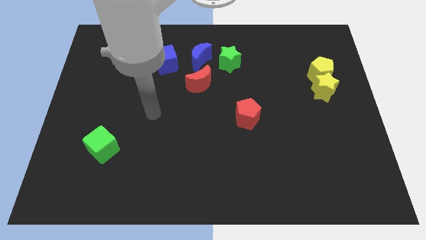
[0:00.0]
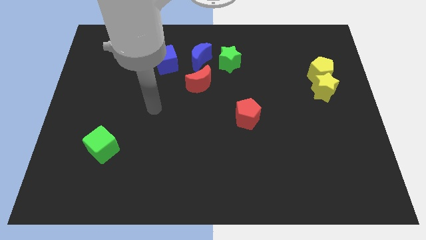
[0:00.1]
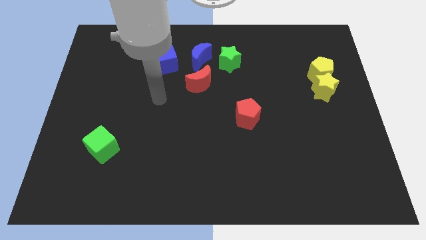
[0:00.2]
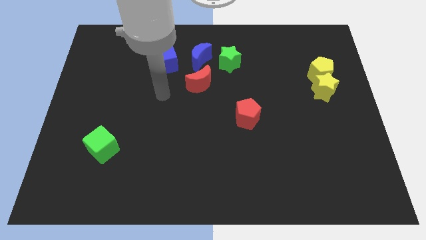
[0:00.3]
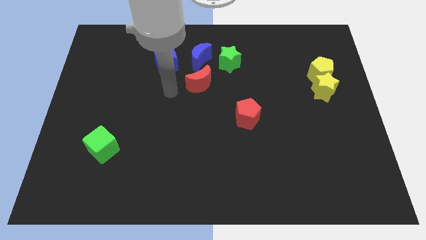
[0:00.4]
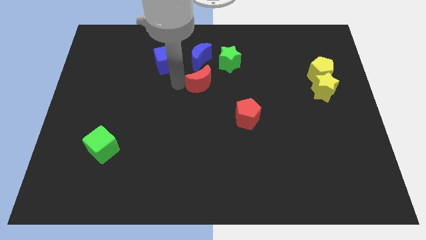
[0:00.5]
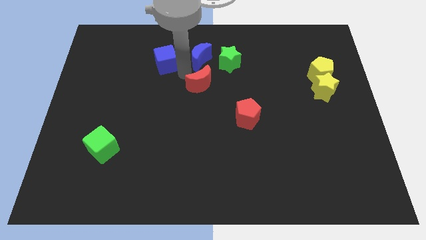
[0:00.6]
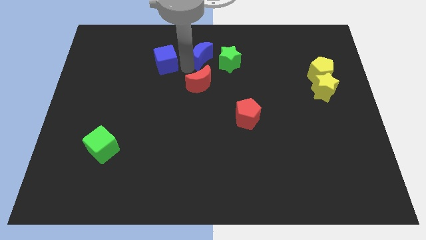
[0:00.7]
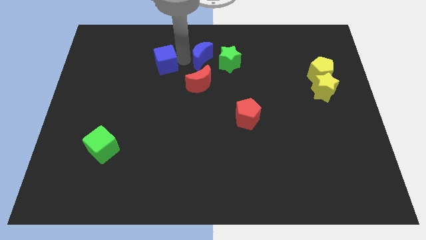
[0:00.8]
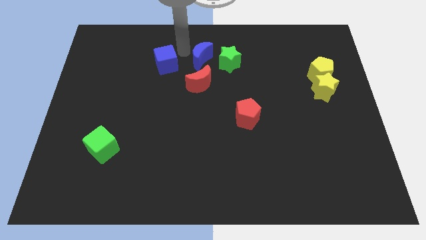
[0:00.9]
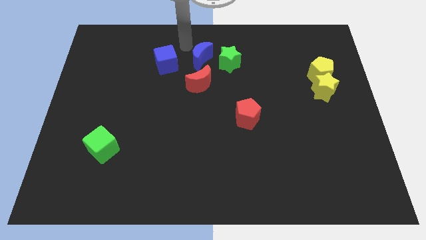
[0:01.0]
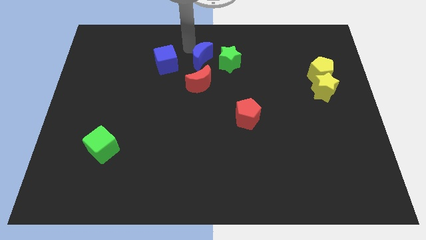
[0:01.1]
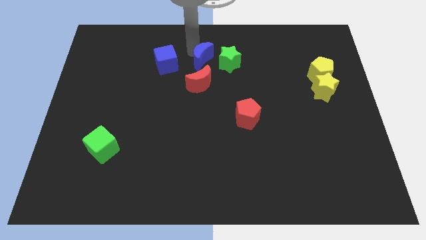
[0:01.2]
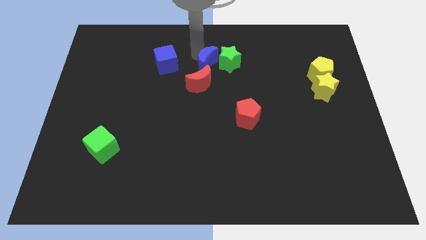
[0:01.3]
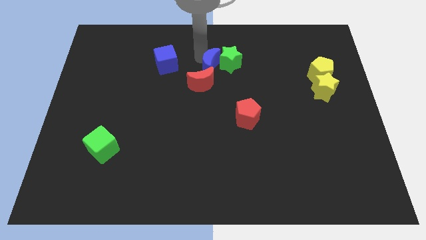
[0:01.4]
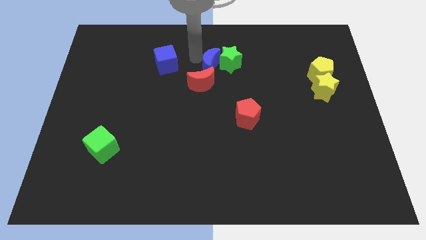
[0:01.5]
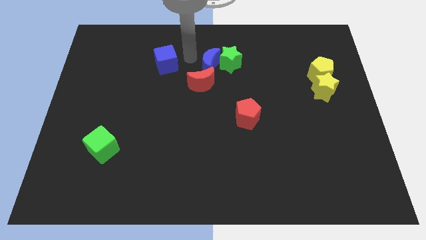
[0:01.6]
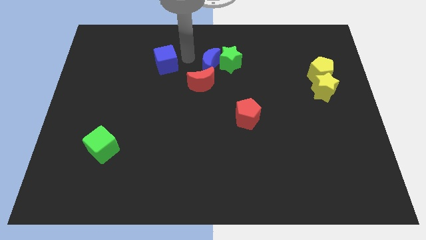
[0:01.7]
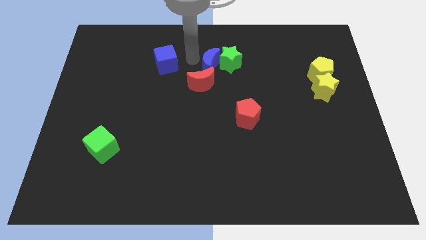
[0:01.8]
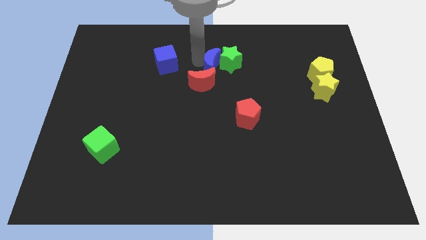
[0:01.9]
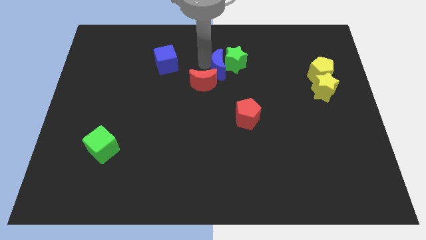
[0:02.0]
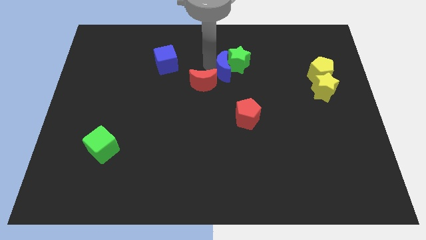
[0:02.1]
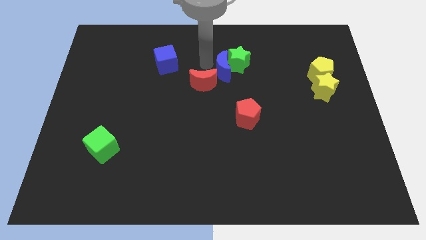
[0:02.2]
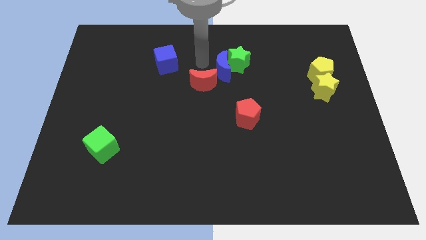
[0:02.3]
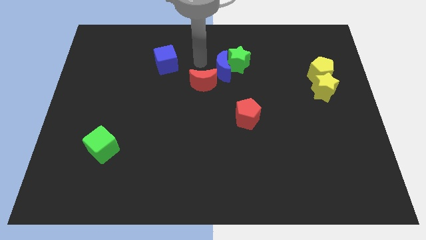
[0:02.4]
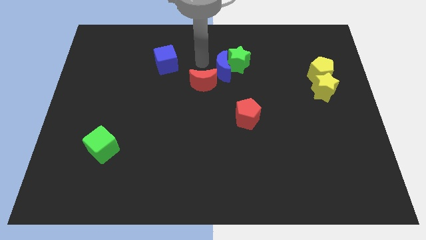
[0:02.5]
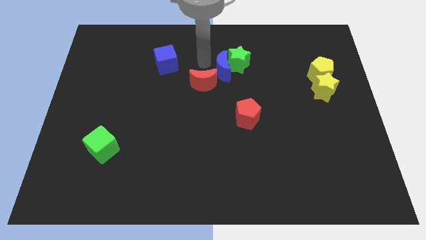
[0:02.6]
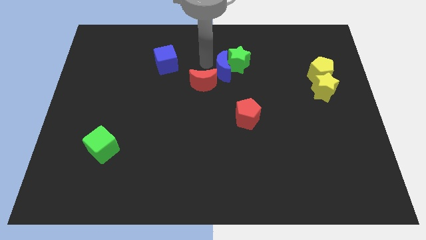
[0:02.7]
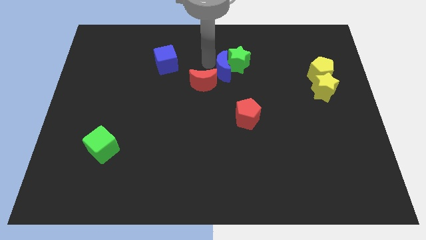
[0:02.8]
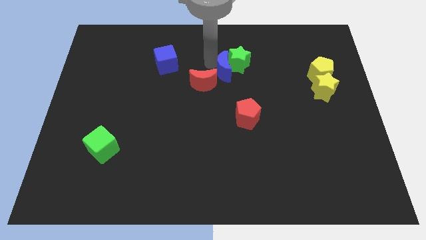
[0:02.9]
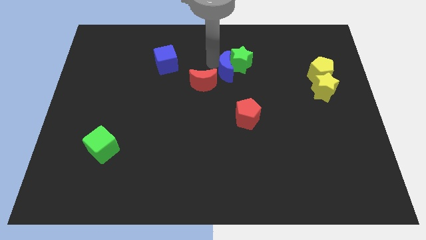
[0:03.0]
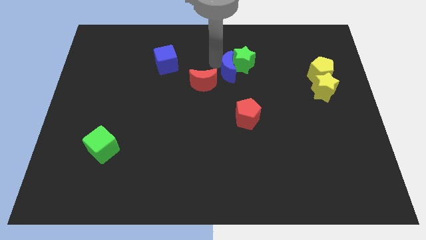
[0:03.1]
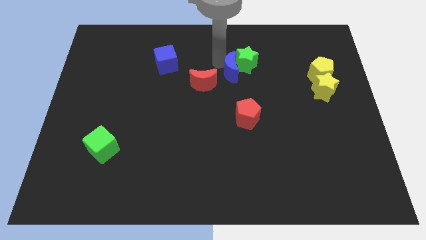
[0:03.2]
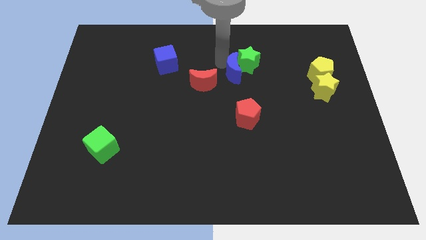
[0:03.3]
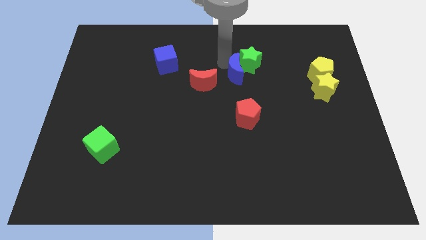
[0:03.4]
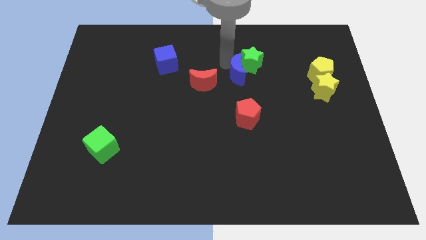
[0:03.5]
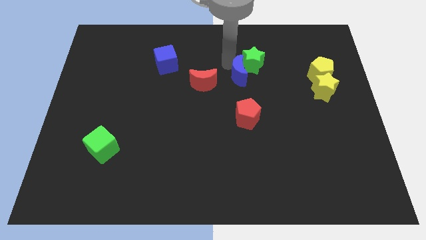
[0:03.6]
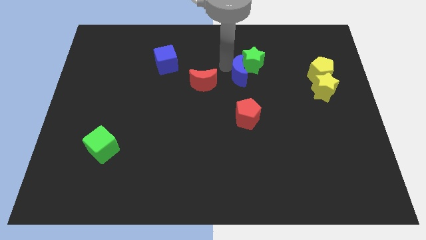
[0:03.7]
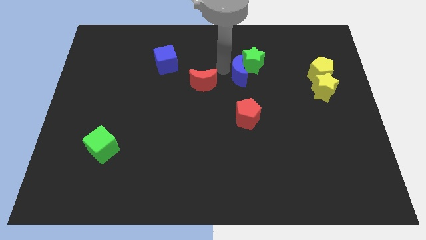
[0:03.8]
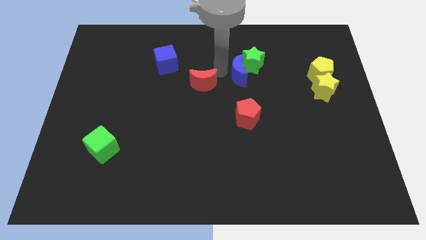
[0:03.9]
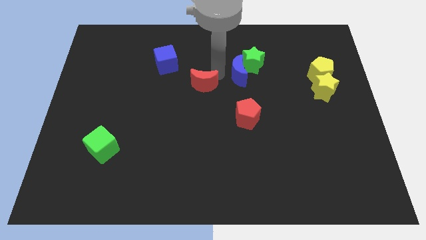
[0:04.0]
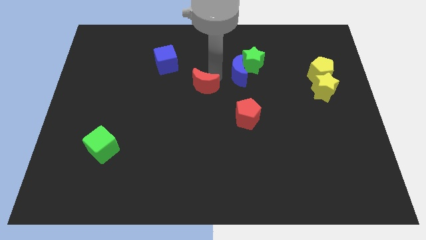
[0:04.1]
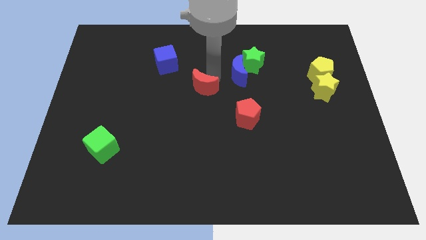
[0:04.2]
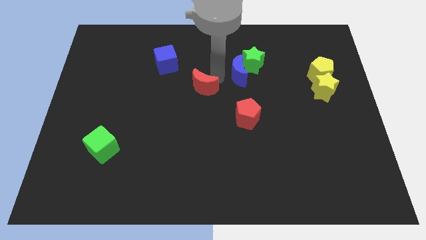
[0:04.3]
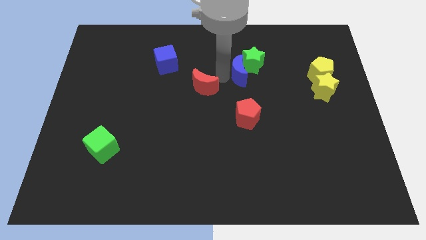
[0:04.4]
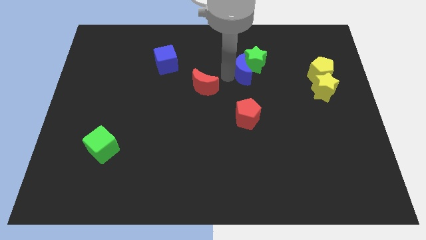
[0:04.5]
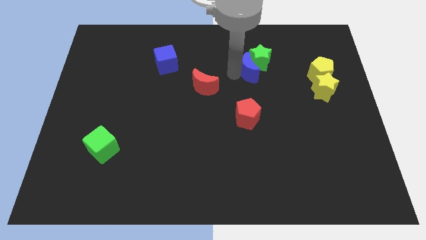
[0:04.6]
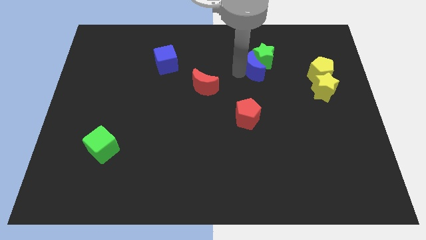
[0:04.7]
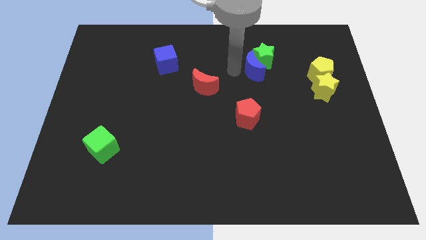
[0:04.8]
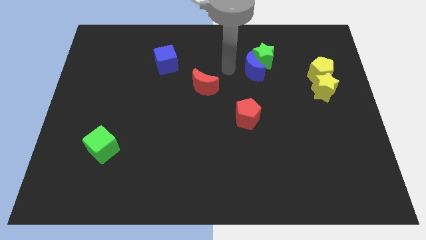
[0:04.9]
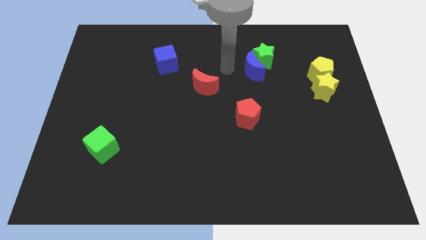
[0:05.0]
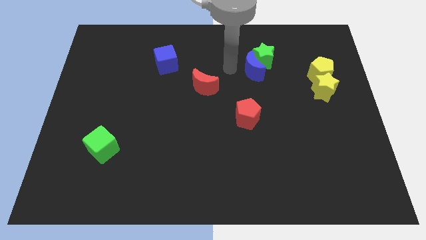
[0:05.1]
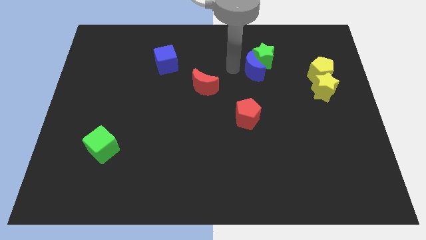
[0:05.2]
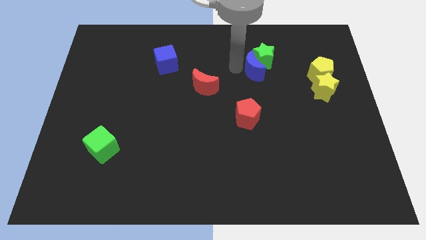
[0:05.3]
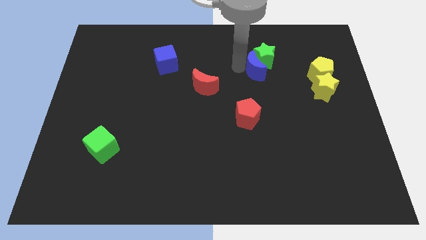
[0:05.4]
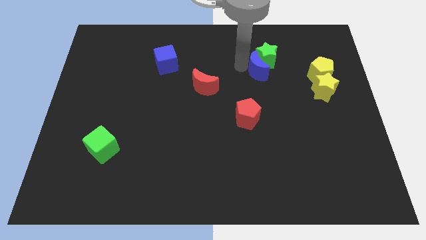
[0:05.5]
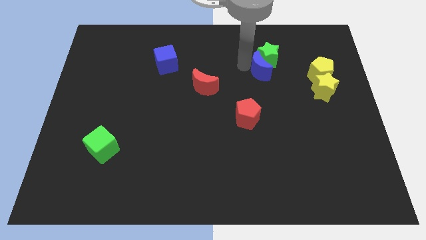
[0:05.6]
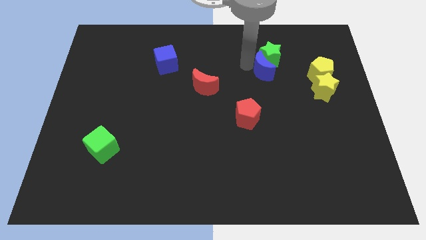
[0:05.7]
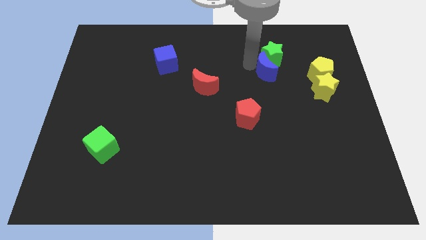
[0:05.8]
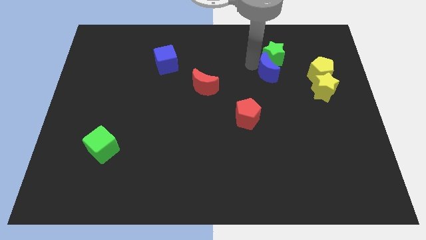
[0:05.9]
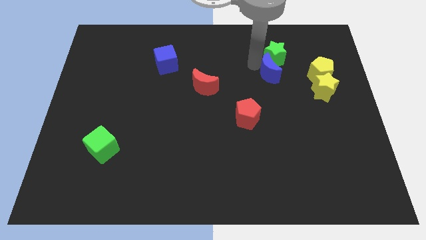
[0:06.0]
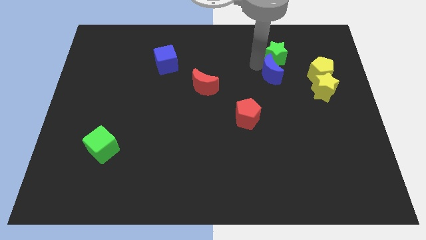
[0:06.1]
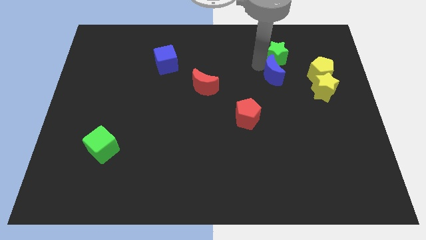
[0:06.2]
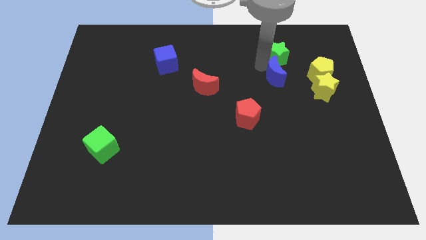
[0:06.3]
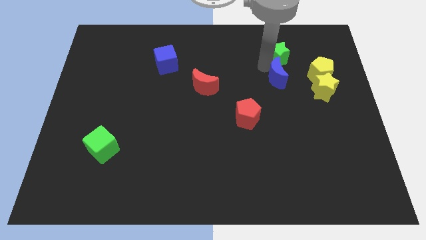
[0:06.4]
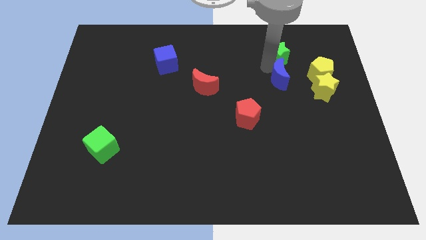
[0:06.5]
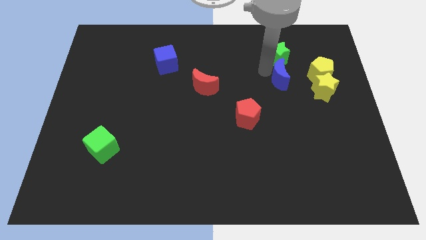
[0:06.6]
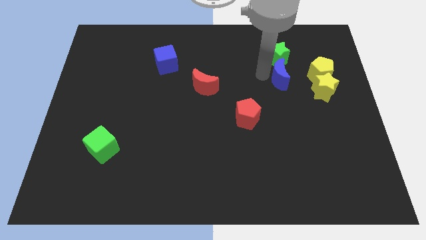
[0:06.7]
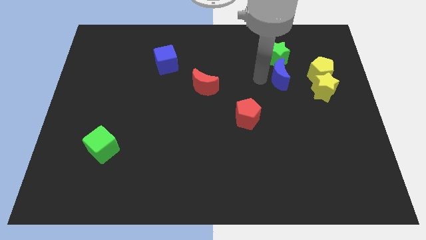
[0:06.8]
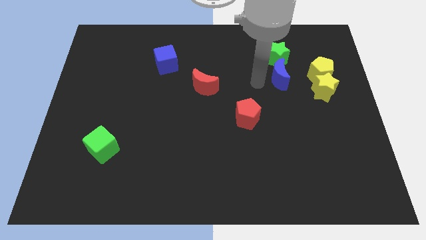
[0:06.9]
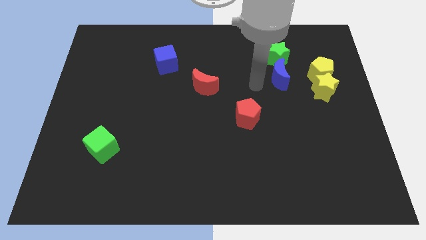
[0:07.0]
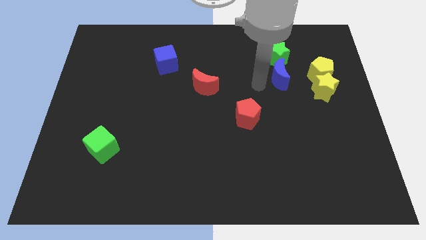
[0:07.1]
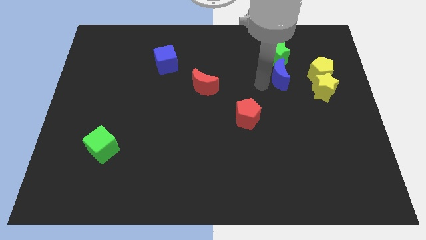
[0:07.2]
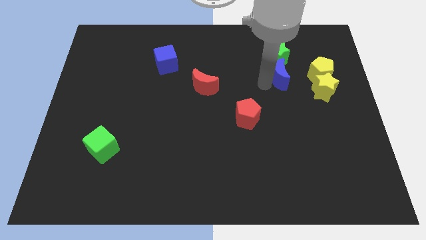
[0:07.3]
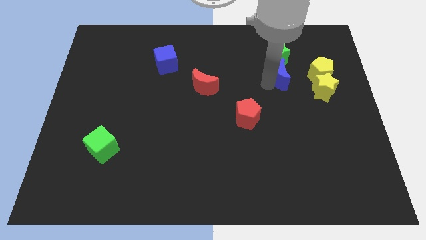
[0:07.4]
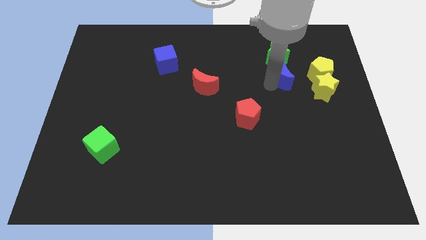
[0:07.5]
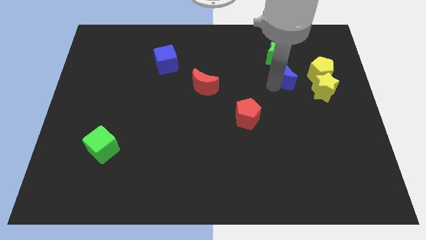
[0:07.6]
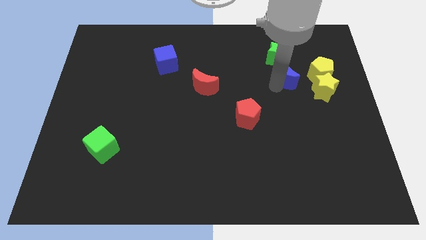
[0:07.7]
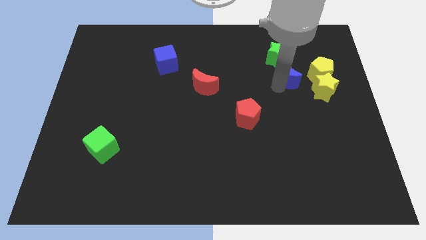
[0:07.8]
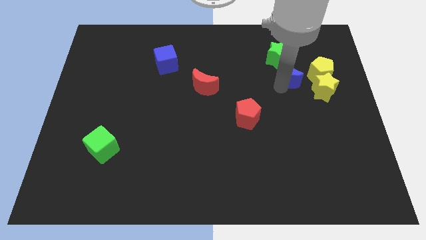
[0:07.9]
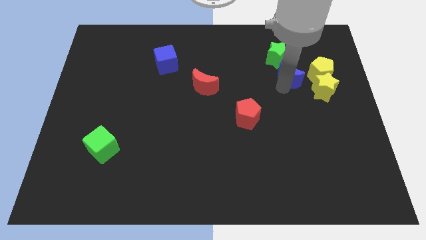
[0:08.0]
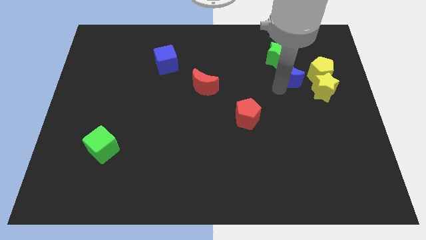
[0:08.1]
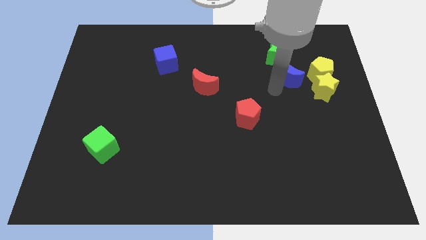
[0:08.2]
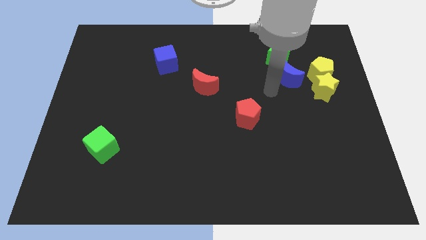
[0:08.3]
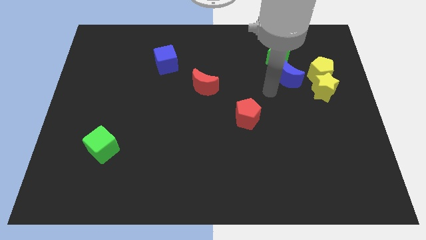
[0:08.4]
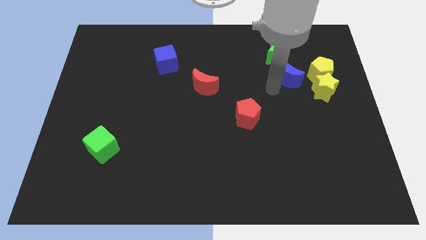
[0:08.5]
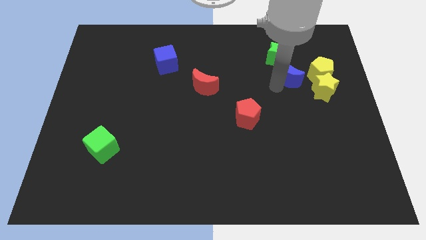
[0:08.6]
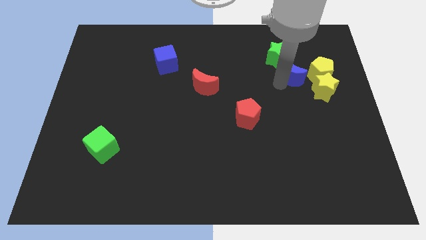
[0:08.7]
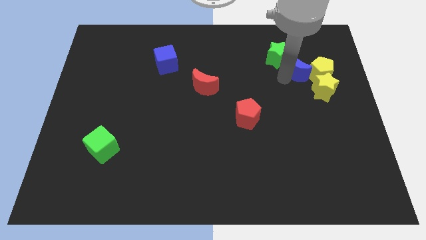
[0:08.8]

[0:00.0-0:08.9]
slide the blue moon close to the yellow pentagon
